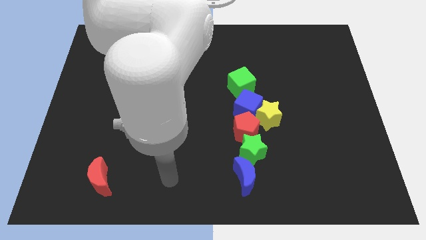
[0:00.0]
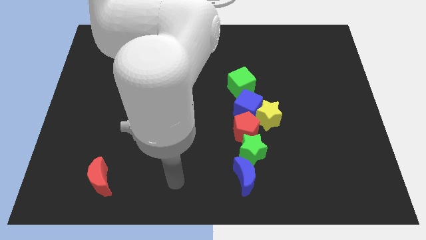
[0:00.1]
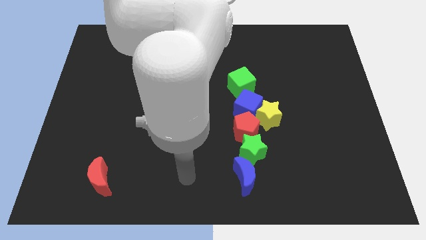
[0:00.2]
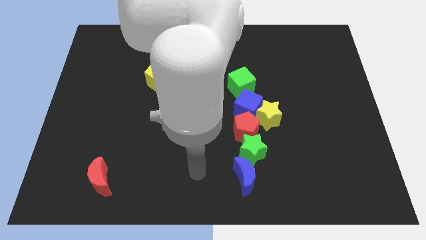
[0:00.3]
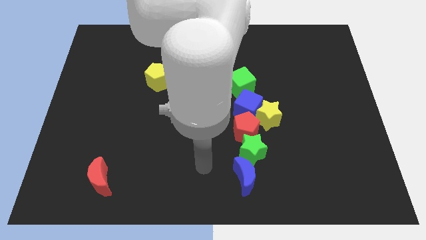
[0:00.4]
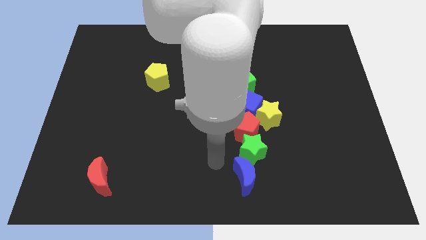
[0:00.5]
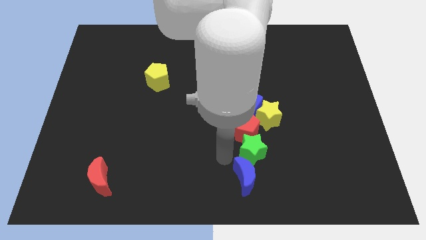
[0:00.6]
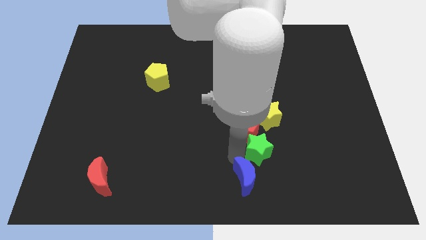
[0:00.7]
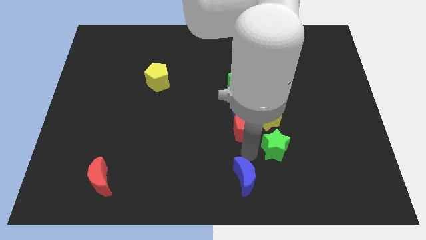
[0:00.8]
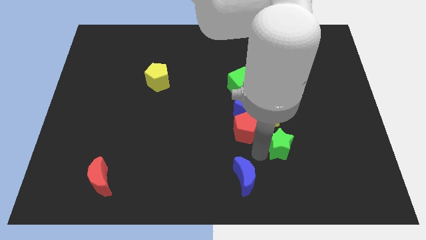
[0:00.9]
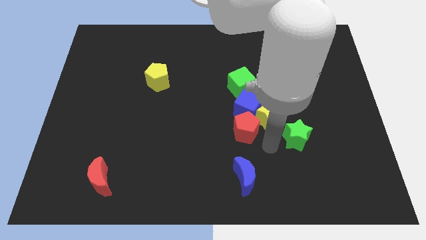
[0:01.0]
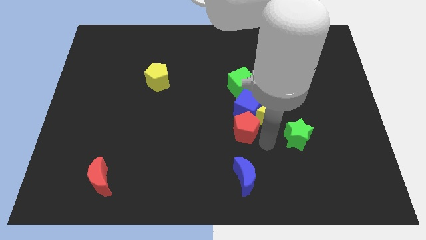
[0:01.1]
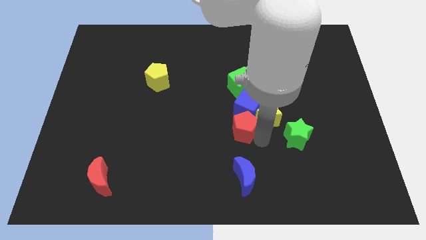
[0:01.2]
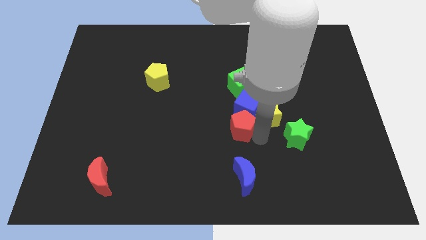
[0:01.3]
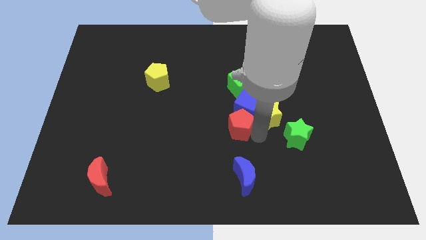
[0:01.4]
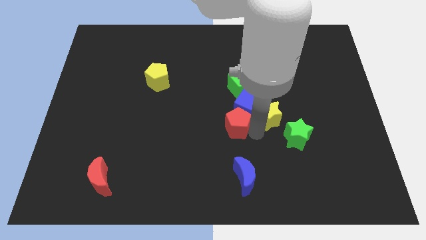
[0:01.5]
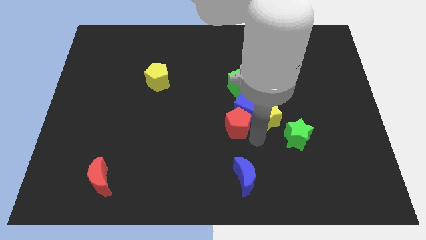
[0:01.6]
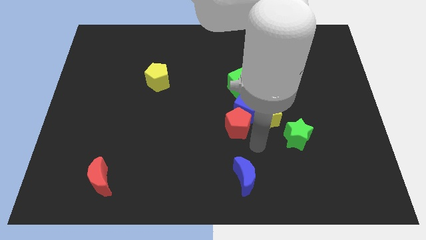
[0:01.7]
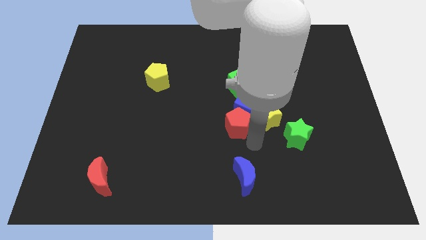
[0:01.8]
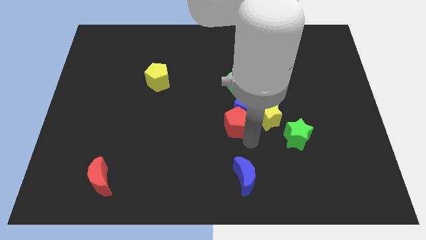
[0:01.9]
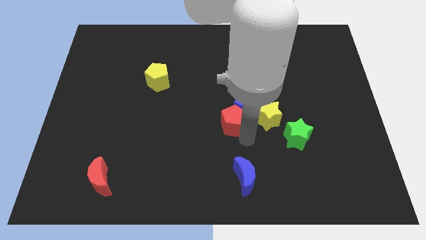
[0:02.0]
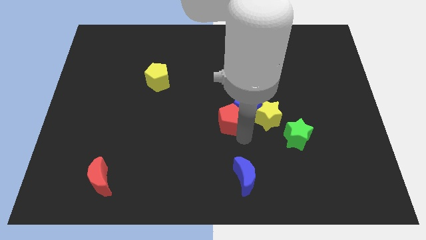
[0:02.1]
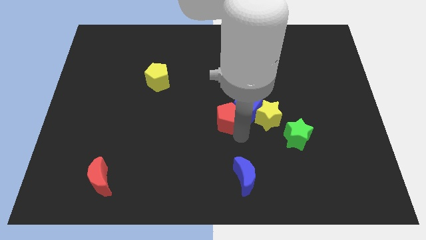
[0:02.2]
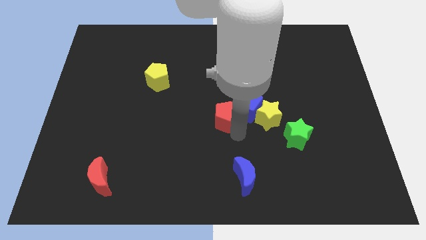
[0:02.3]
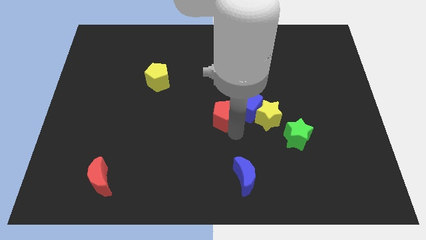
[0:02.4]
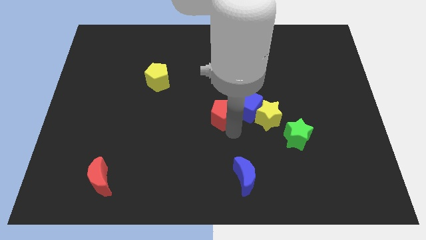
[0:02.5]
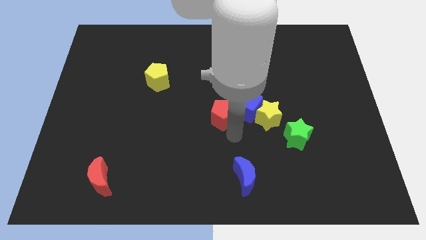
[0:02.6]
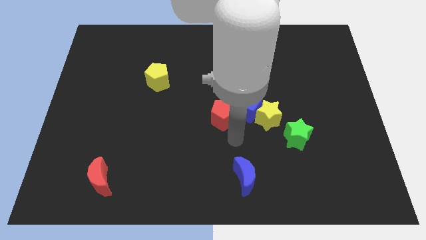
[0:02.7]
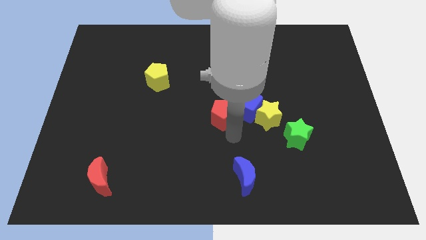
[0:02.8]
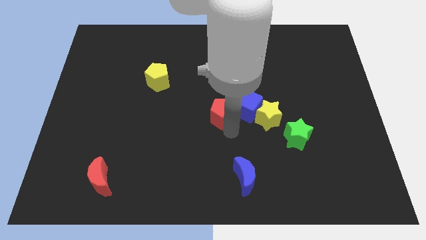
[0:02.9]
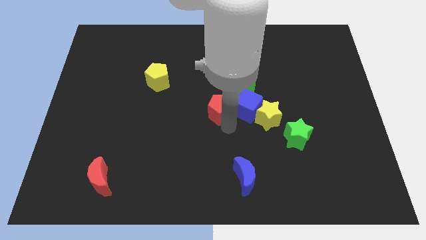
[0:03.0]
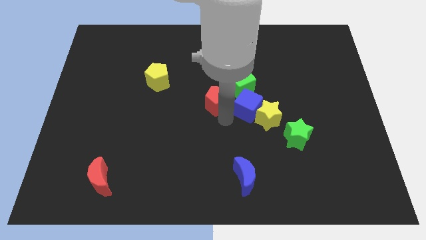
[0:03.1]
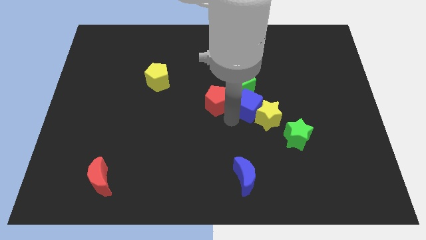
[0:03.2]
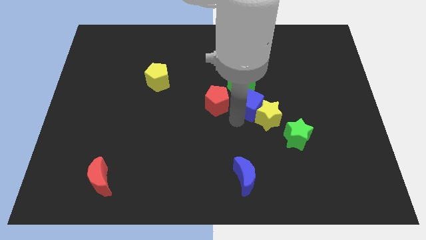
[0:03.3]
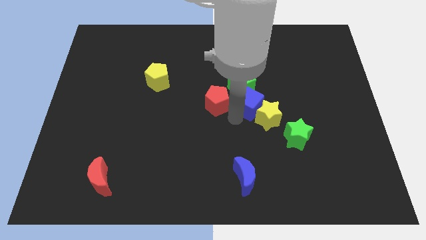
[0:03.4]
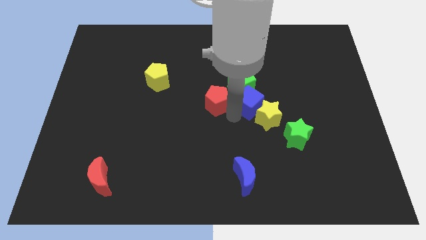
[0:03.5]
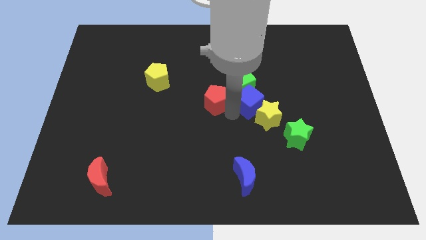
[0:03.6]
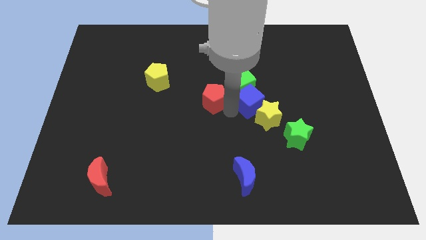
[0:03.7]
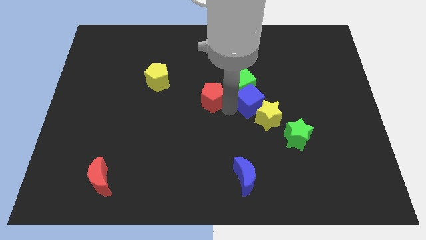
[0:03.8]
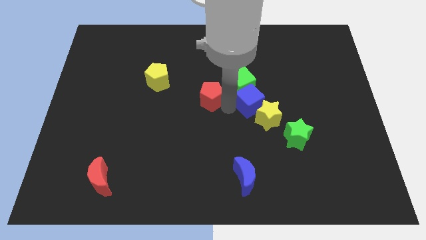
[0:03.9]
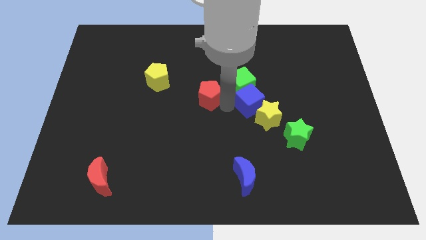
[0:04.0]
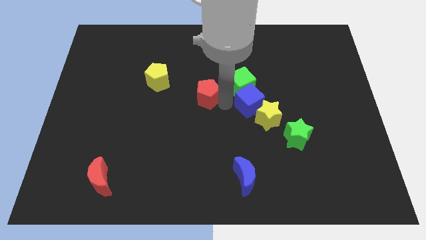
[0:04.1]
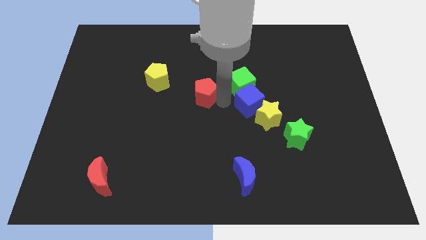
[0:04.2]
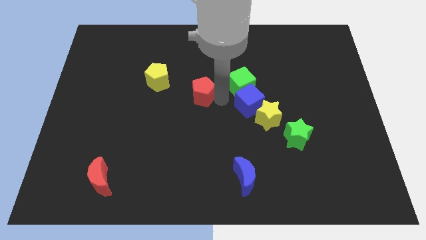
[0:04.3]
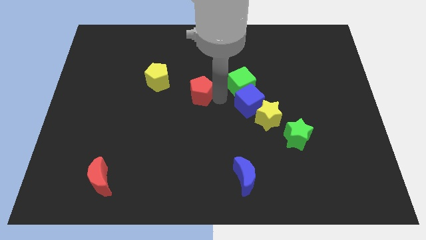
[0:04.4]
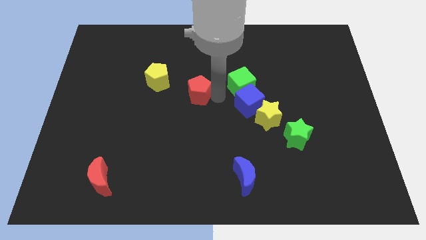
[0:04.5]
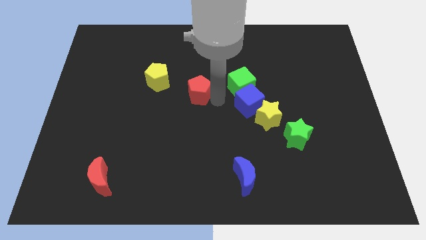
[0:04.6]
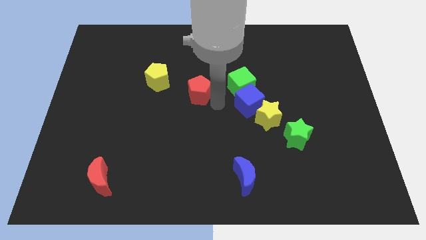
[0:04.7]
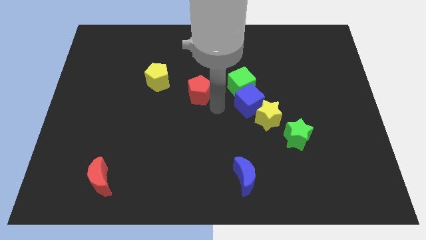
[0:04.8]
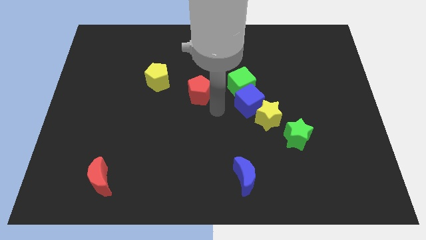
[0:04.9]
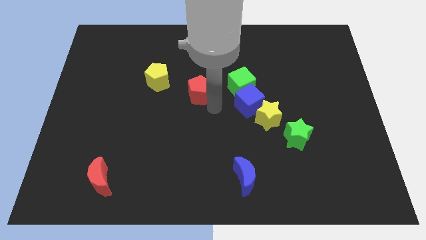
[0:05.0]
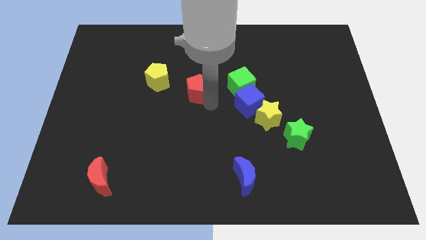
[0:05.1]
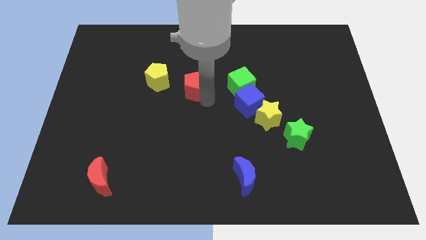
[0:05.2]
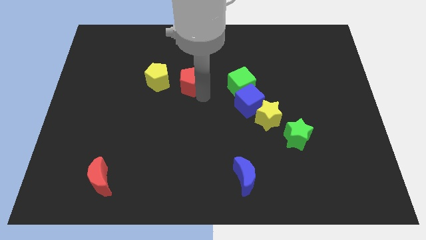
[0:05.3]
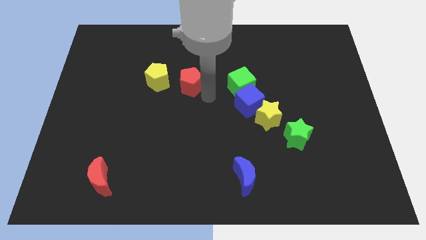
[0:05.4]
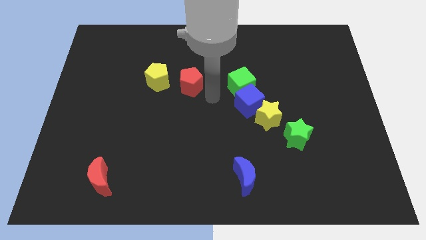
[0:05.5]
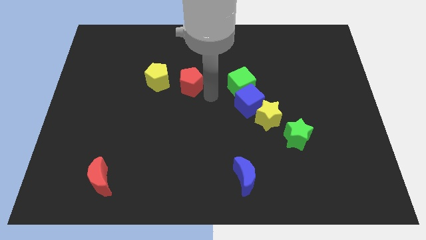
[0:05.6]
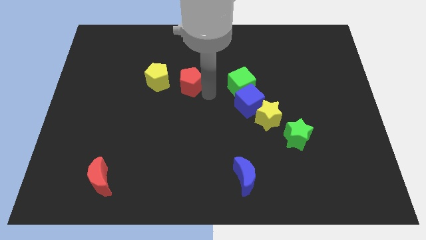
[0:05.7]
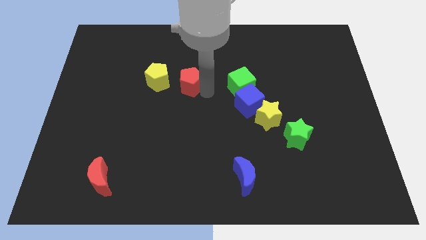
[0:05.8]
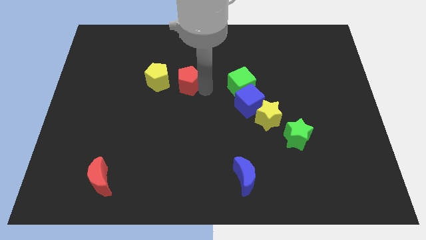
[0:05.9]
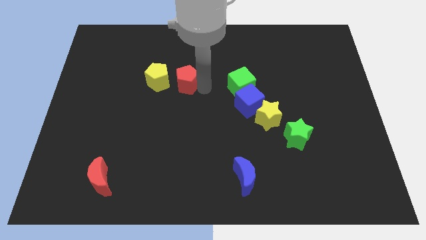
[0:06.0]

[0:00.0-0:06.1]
push the red pentagon upwards and to the left diagonally

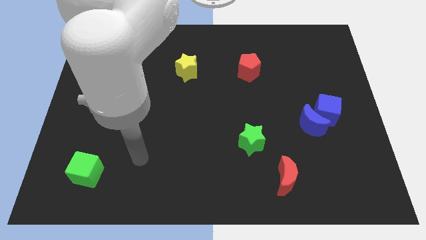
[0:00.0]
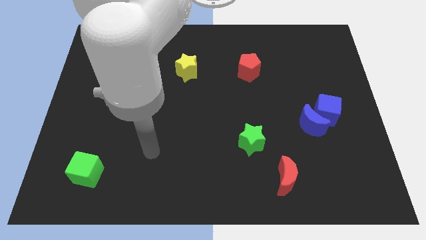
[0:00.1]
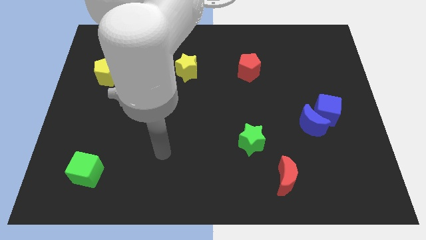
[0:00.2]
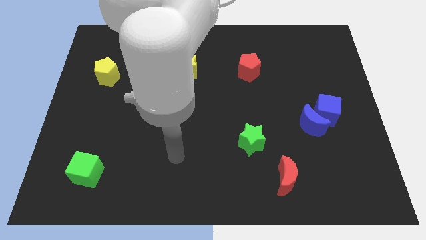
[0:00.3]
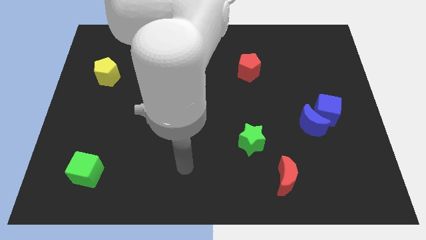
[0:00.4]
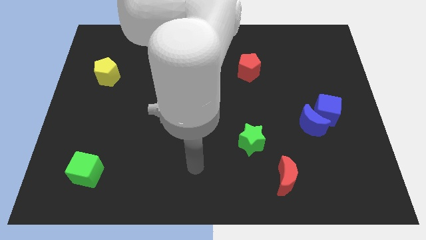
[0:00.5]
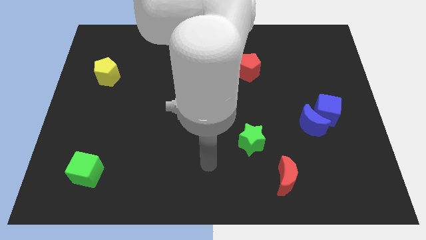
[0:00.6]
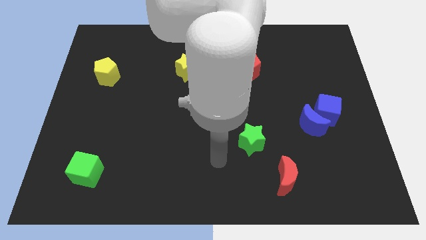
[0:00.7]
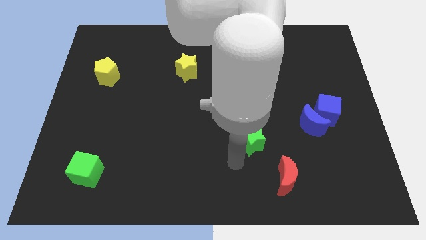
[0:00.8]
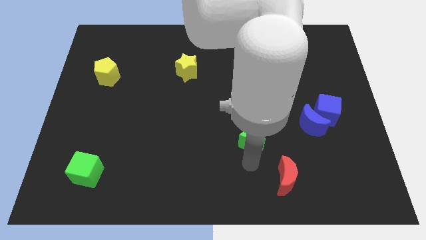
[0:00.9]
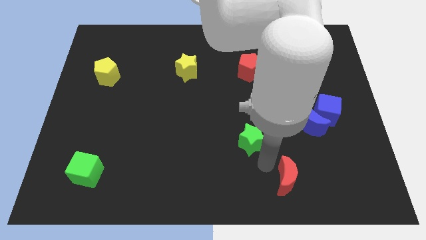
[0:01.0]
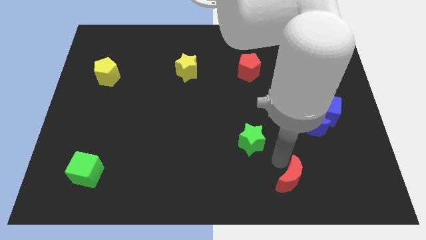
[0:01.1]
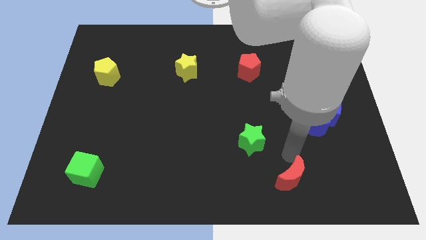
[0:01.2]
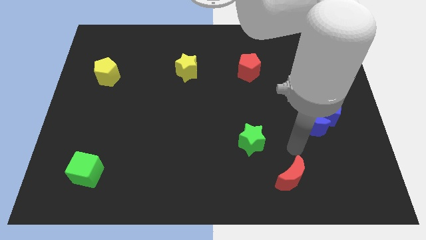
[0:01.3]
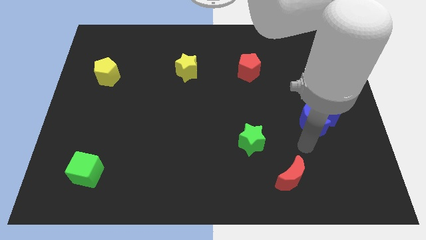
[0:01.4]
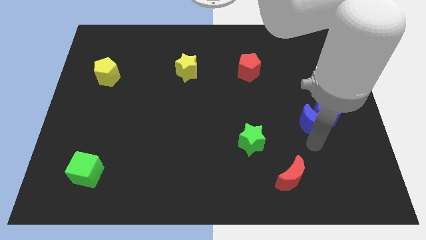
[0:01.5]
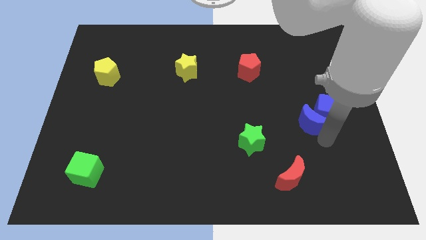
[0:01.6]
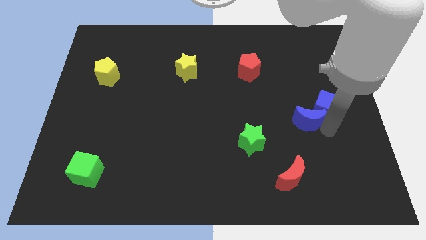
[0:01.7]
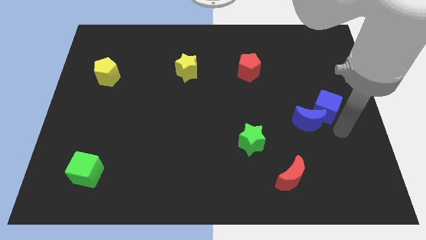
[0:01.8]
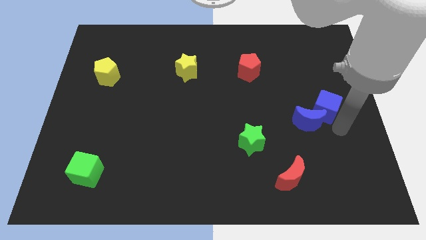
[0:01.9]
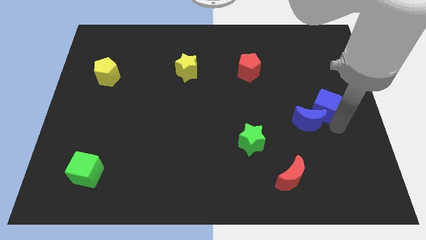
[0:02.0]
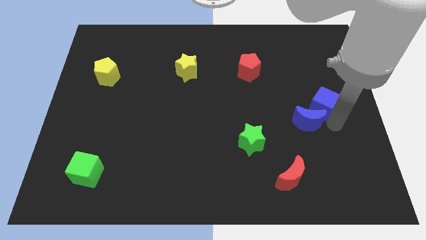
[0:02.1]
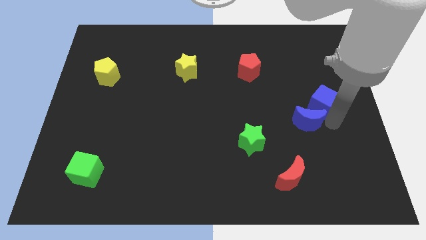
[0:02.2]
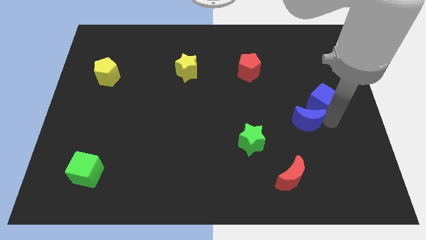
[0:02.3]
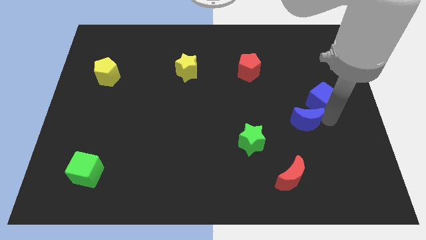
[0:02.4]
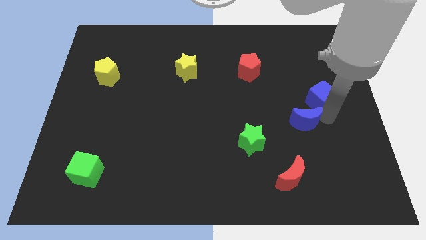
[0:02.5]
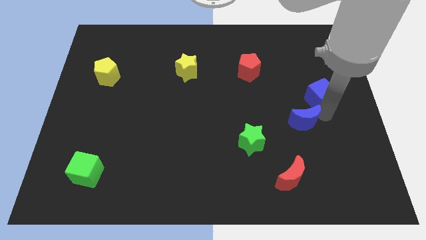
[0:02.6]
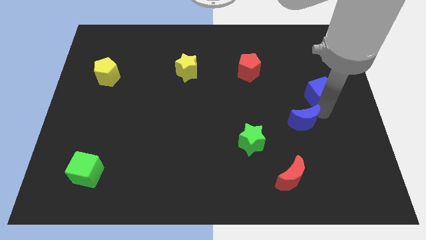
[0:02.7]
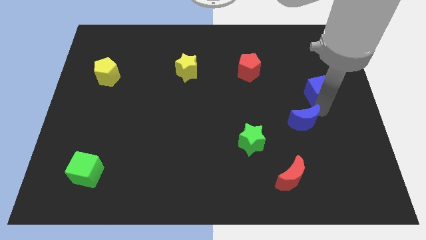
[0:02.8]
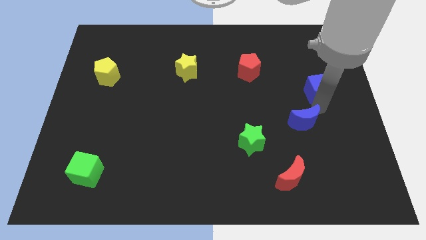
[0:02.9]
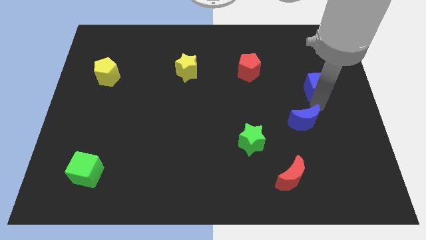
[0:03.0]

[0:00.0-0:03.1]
slide the blue cube a little bit up
